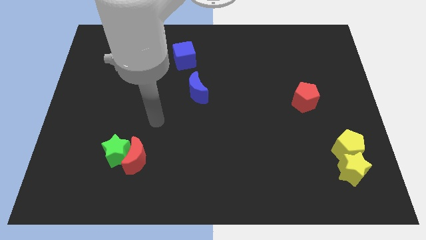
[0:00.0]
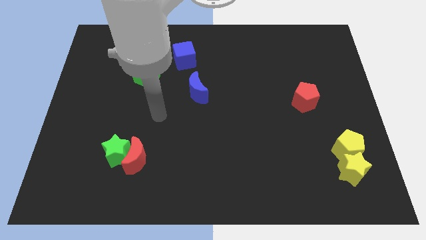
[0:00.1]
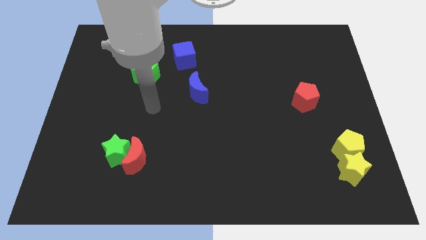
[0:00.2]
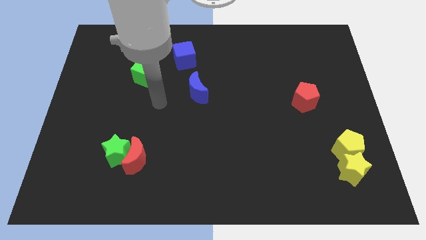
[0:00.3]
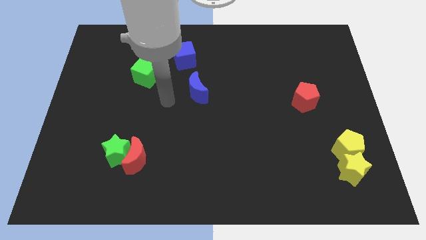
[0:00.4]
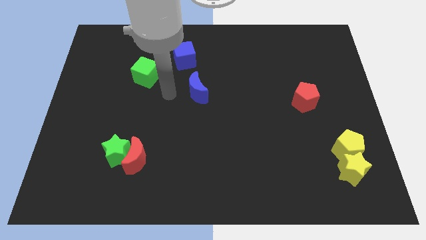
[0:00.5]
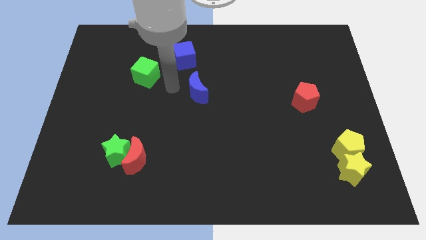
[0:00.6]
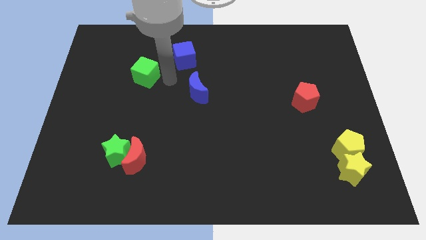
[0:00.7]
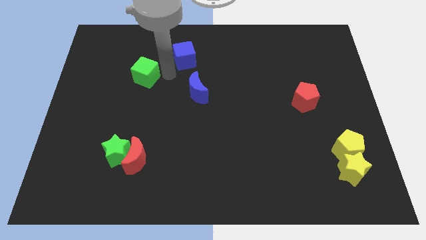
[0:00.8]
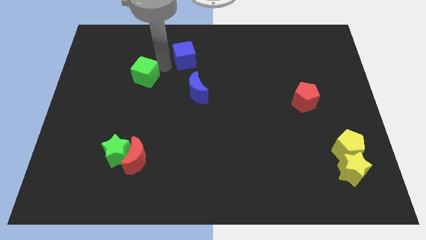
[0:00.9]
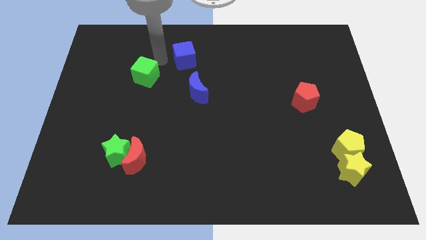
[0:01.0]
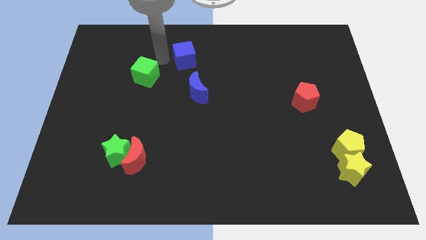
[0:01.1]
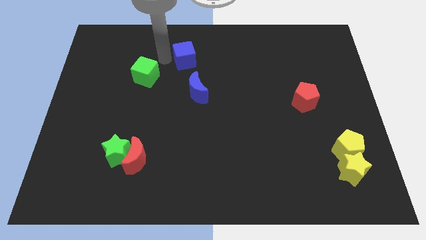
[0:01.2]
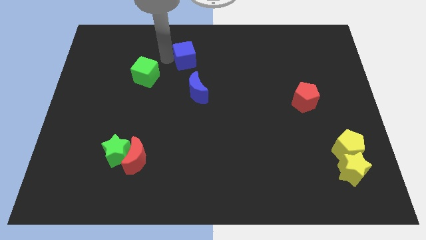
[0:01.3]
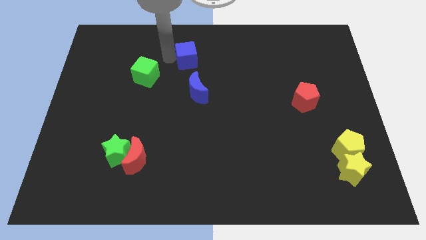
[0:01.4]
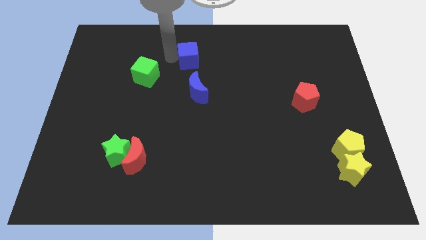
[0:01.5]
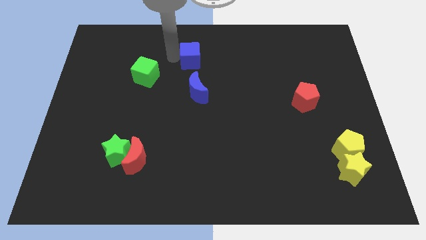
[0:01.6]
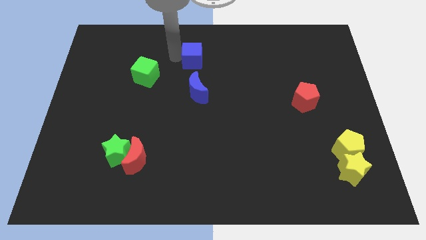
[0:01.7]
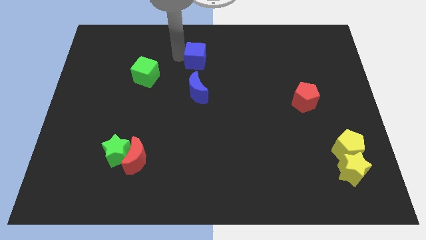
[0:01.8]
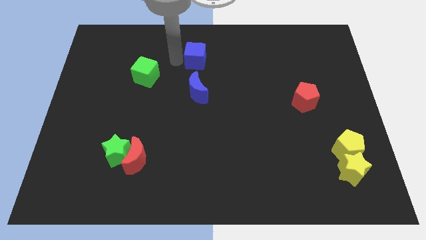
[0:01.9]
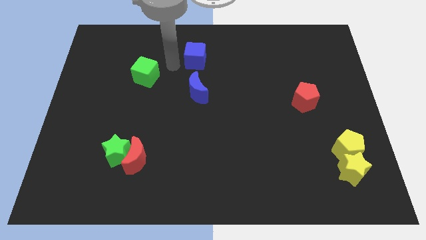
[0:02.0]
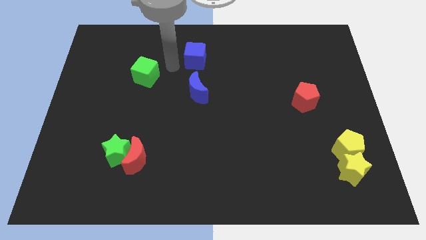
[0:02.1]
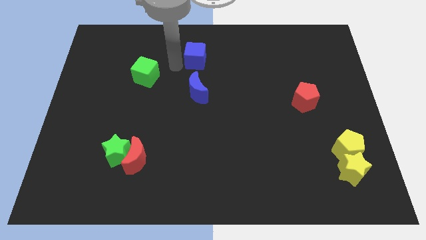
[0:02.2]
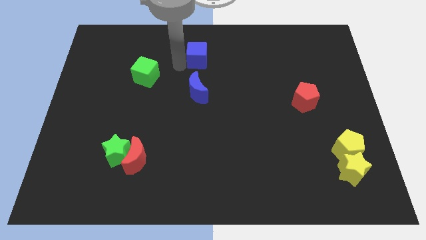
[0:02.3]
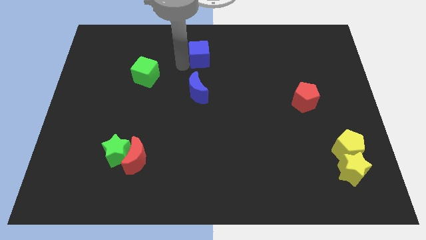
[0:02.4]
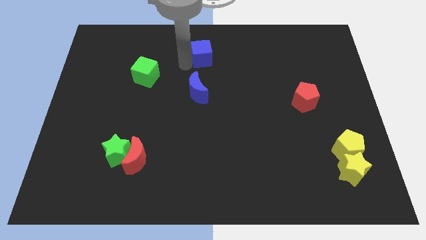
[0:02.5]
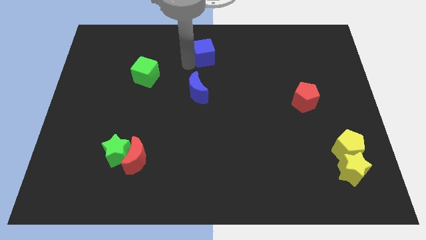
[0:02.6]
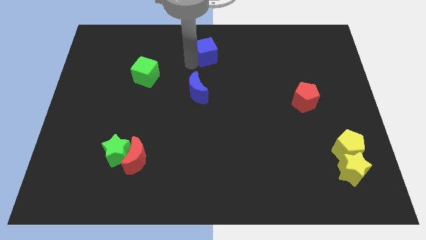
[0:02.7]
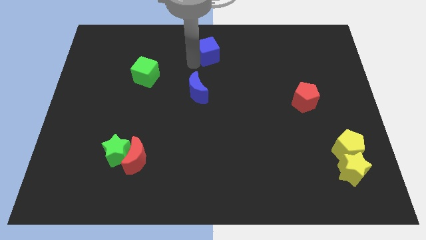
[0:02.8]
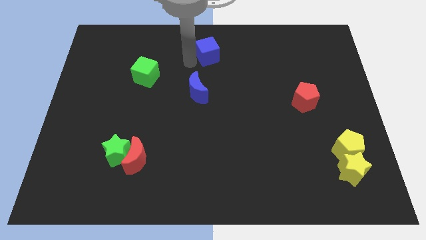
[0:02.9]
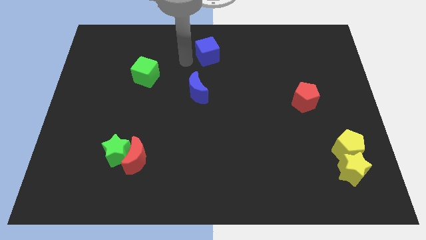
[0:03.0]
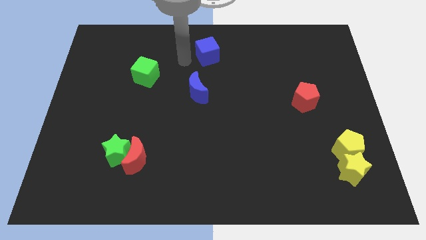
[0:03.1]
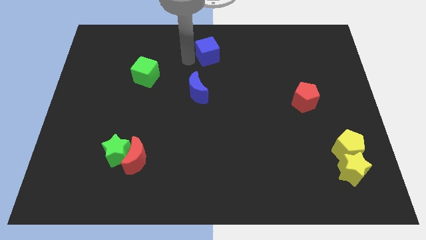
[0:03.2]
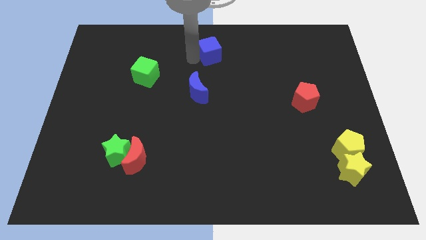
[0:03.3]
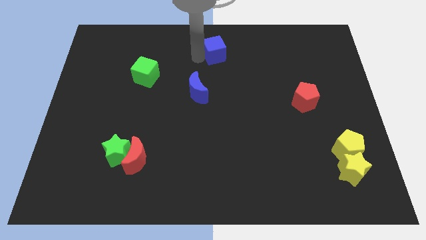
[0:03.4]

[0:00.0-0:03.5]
slide the blue cube slightly right

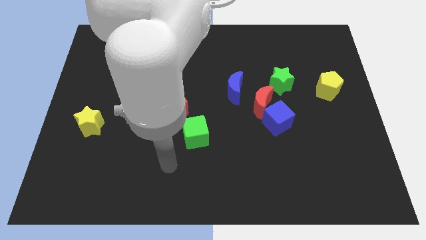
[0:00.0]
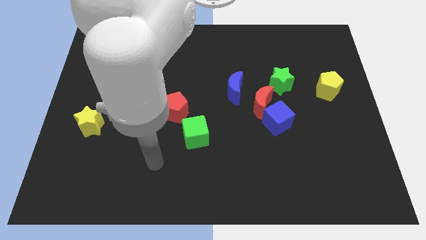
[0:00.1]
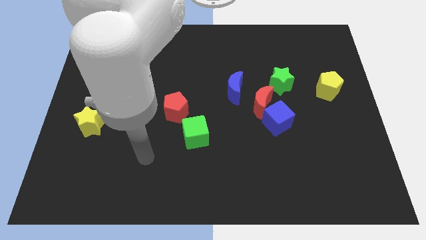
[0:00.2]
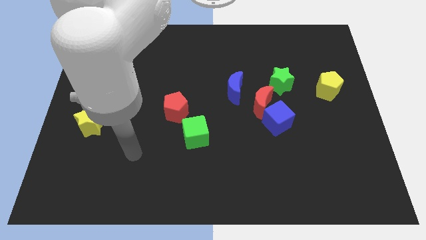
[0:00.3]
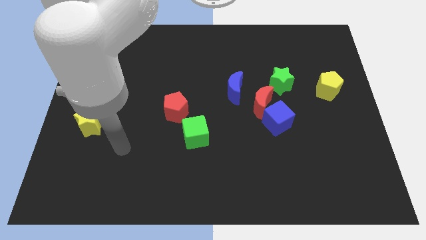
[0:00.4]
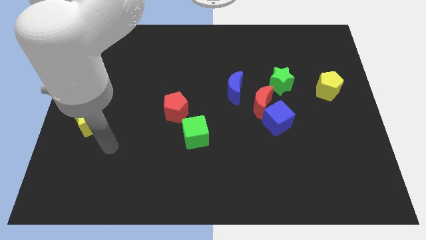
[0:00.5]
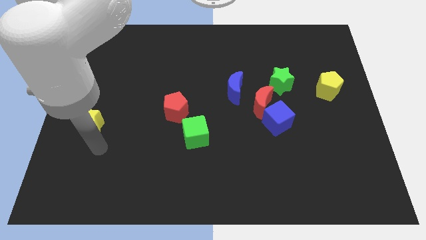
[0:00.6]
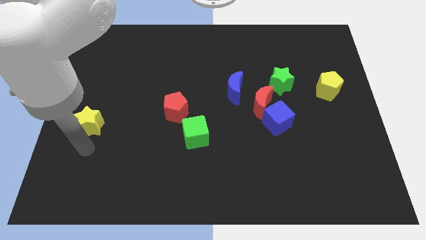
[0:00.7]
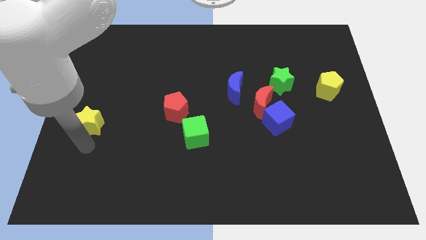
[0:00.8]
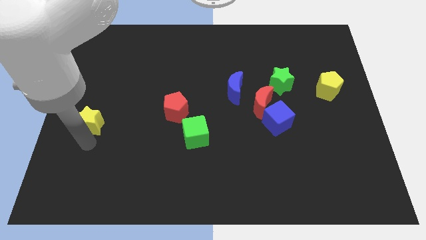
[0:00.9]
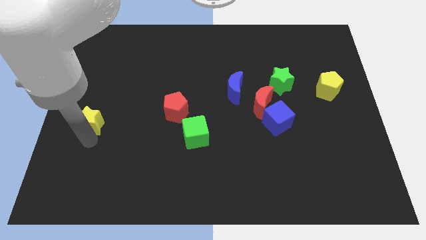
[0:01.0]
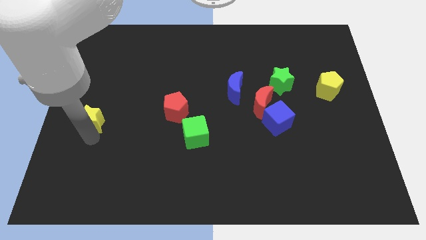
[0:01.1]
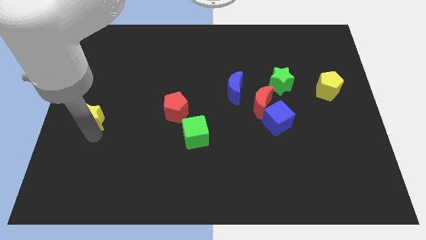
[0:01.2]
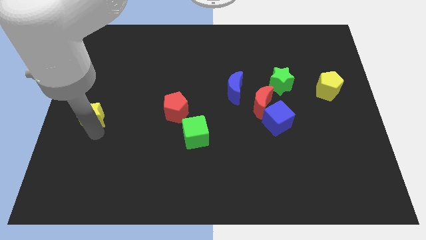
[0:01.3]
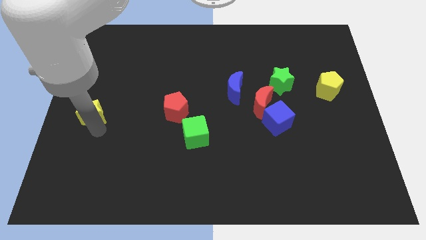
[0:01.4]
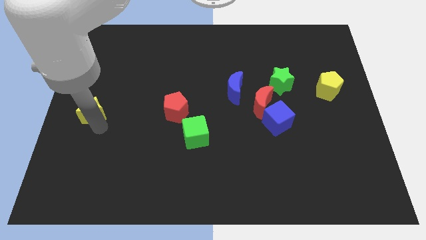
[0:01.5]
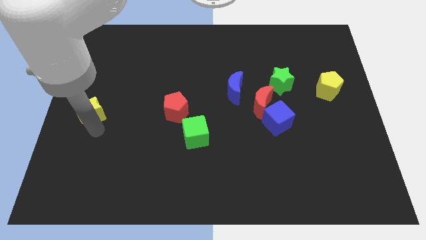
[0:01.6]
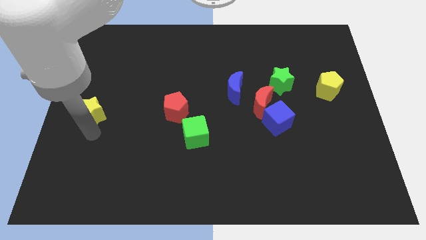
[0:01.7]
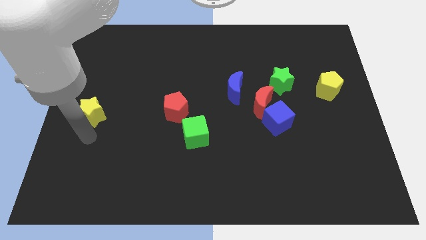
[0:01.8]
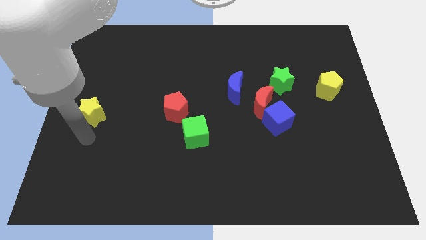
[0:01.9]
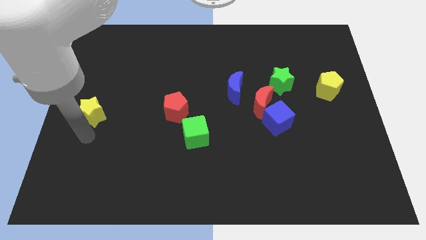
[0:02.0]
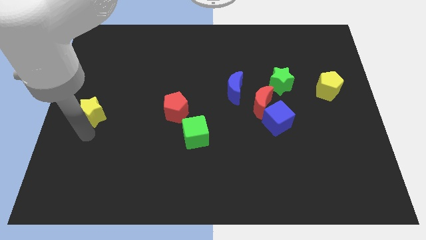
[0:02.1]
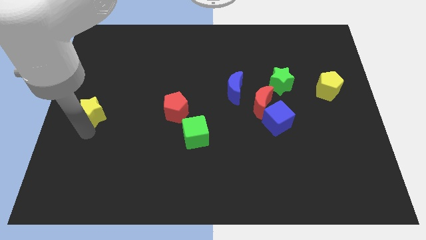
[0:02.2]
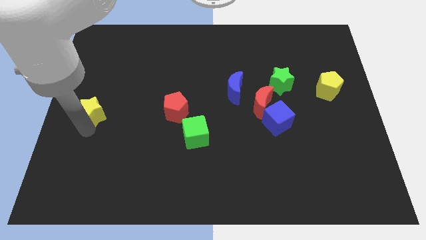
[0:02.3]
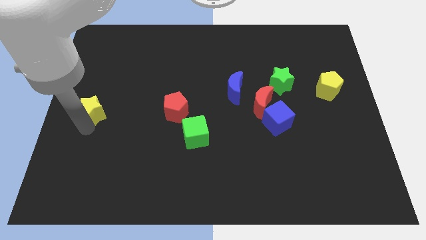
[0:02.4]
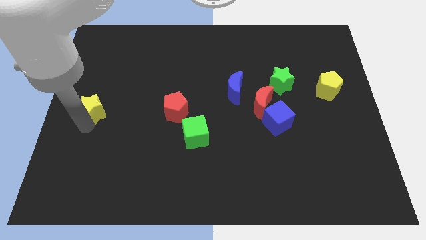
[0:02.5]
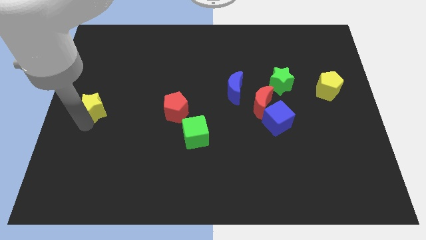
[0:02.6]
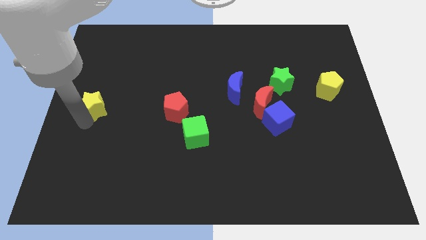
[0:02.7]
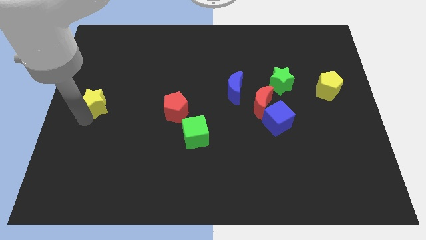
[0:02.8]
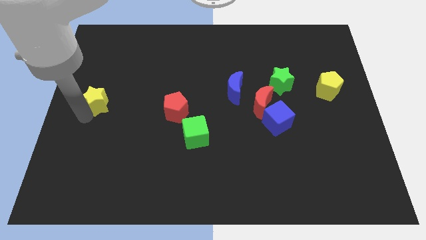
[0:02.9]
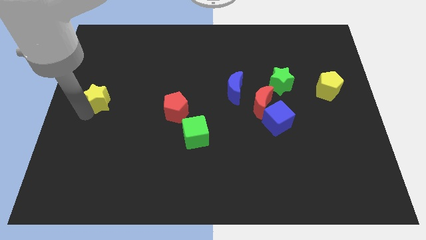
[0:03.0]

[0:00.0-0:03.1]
slide the yellow star up a little bit

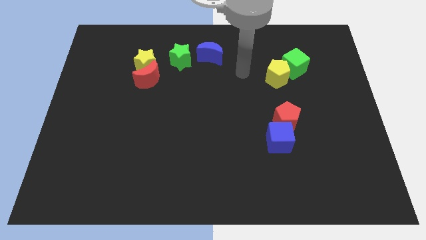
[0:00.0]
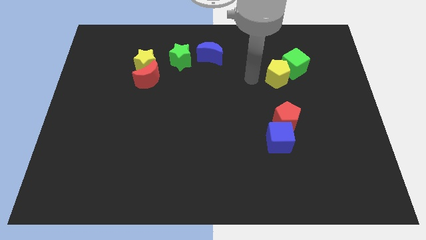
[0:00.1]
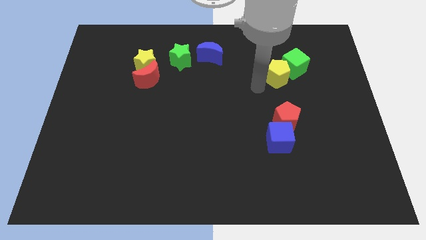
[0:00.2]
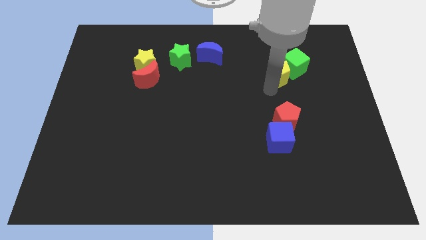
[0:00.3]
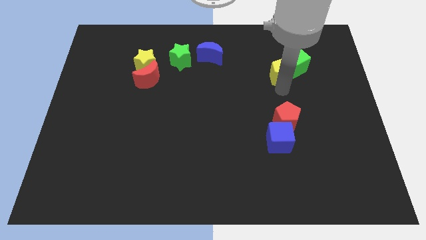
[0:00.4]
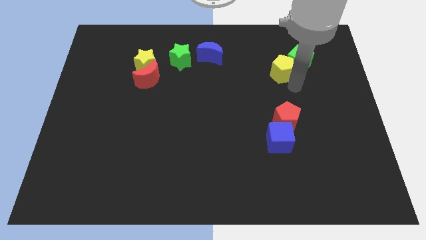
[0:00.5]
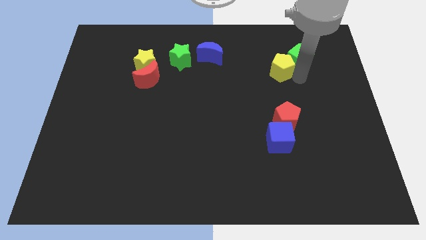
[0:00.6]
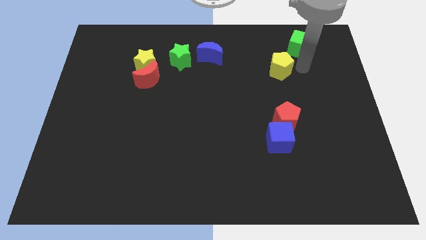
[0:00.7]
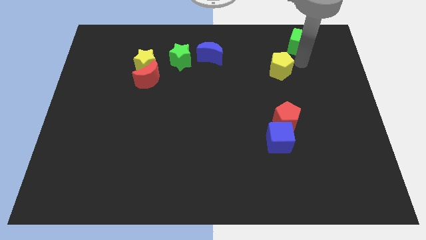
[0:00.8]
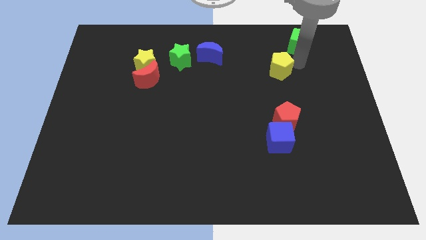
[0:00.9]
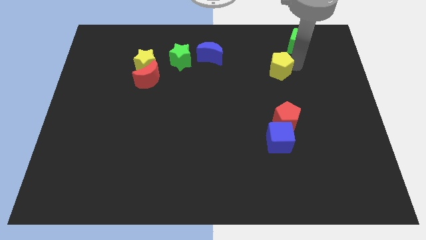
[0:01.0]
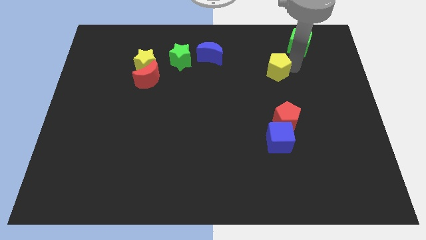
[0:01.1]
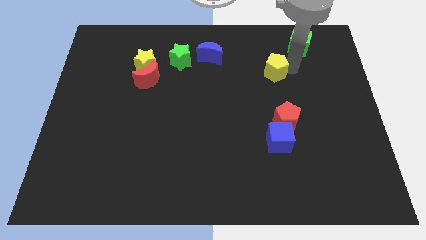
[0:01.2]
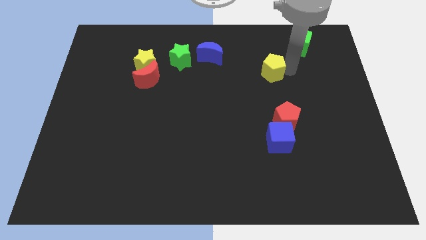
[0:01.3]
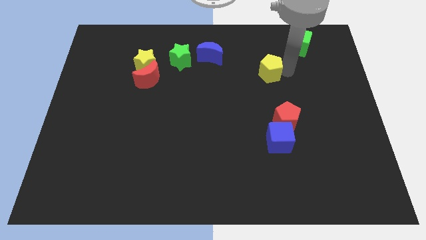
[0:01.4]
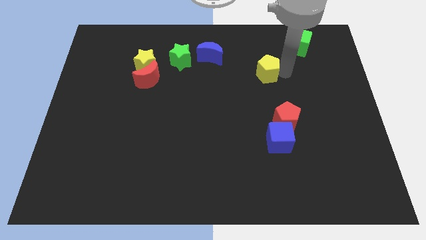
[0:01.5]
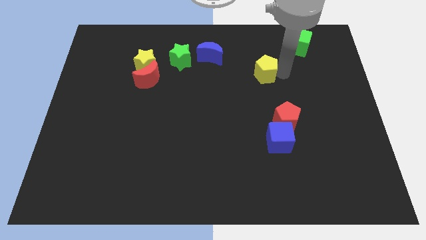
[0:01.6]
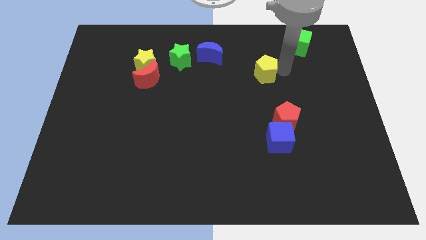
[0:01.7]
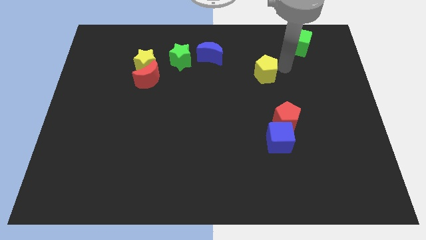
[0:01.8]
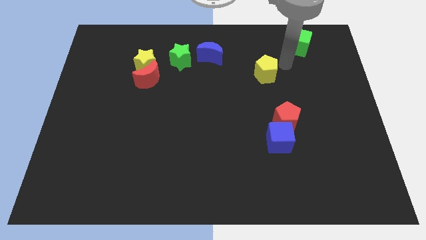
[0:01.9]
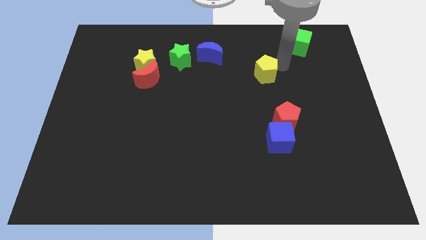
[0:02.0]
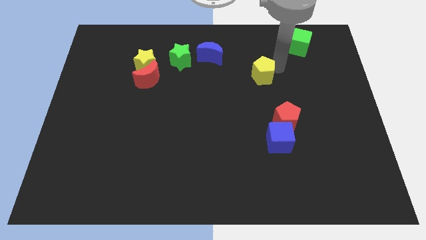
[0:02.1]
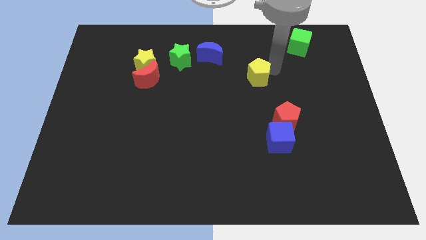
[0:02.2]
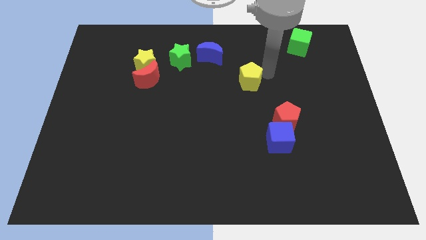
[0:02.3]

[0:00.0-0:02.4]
slightly push the yellow pentagon left
